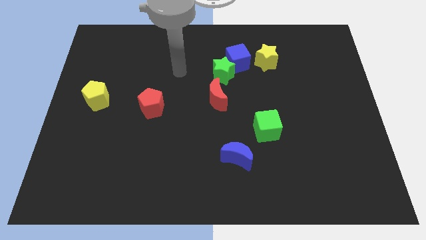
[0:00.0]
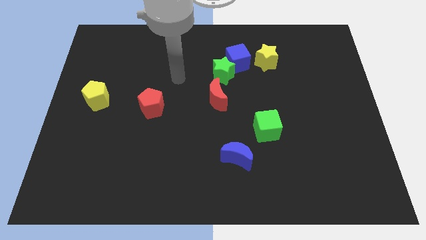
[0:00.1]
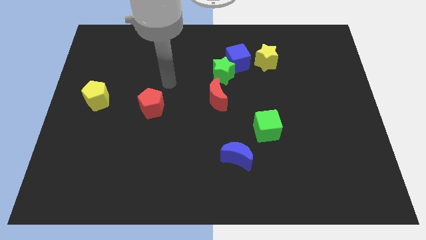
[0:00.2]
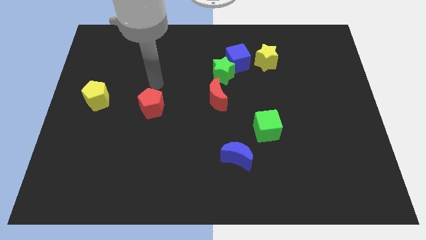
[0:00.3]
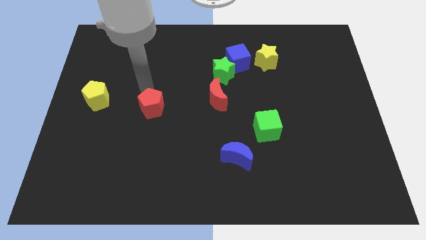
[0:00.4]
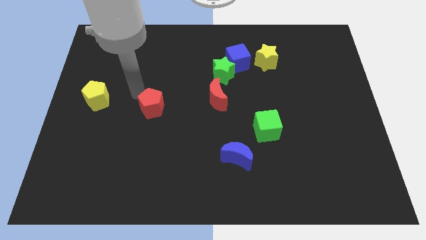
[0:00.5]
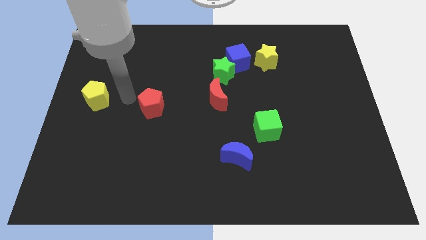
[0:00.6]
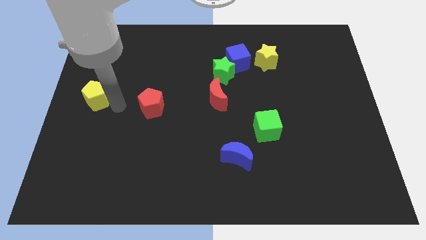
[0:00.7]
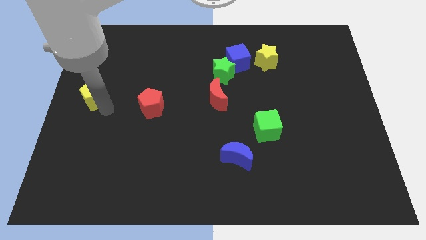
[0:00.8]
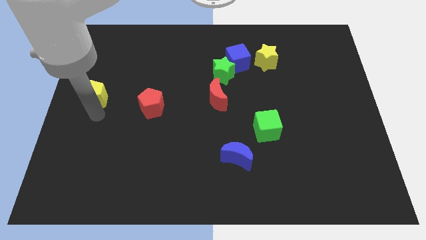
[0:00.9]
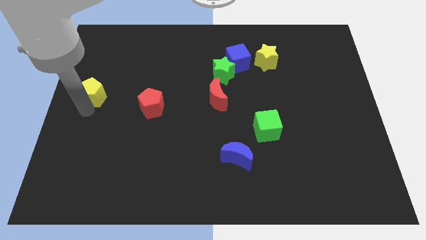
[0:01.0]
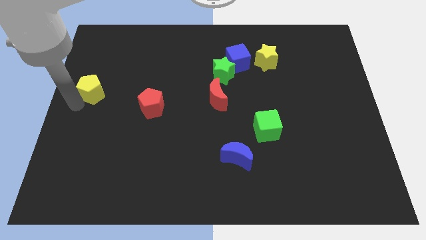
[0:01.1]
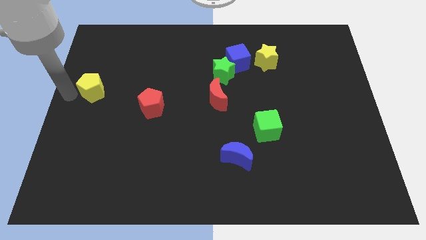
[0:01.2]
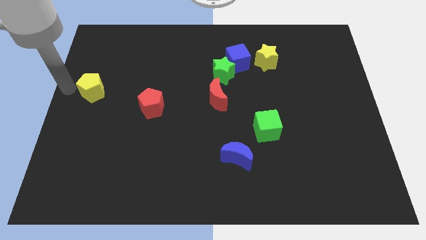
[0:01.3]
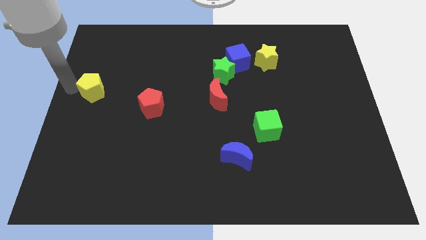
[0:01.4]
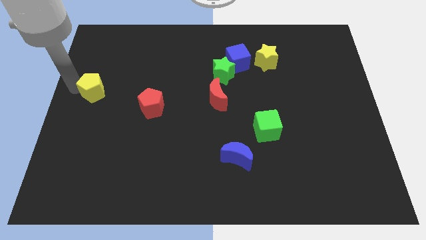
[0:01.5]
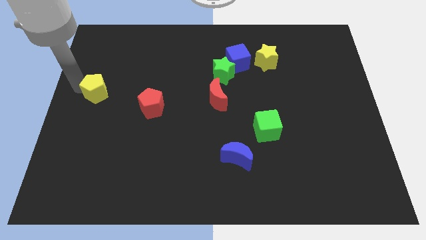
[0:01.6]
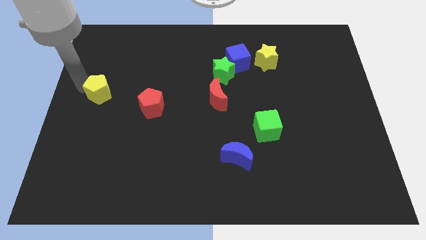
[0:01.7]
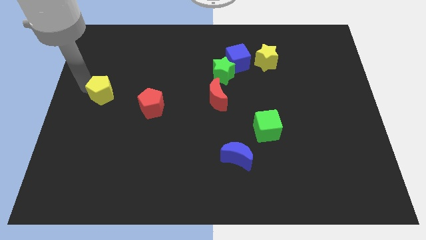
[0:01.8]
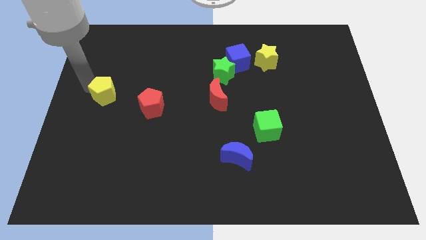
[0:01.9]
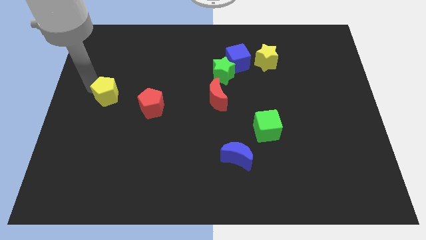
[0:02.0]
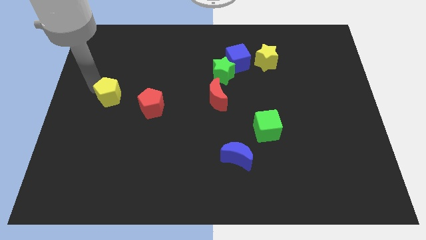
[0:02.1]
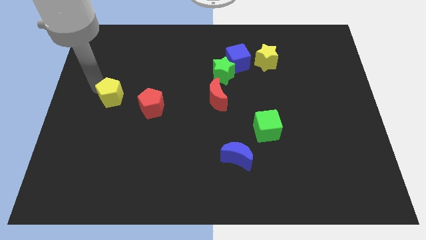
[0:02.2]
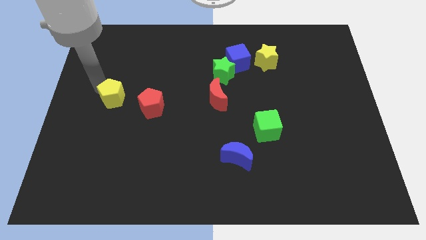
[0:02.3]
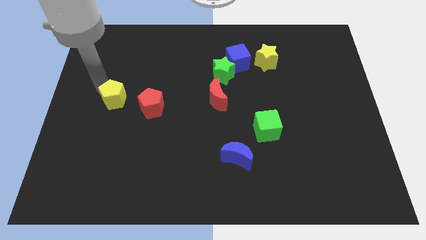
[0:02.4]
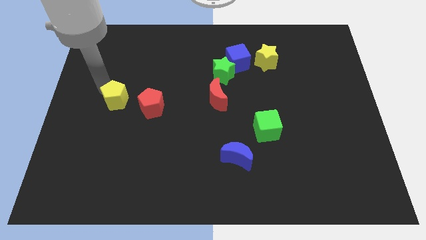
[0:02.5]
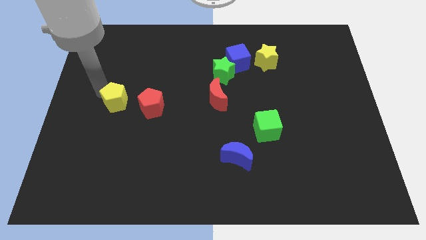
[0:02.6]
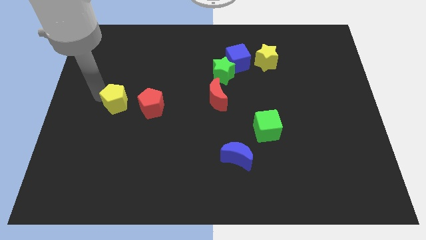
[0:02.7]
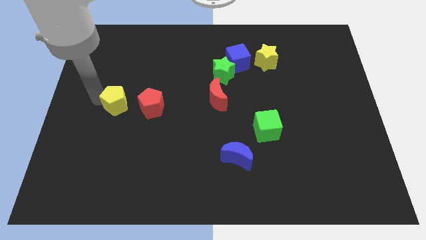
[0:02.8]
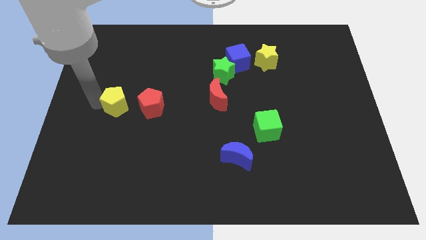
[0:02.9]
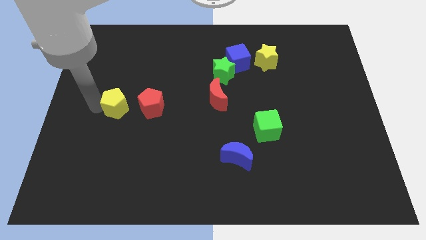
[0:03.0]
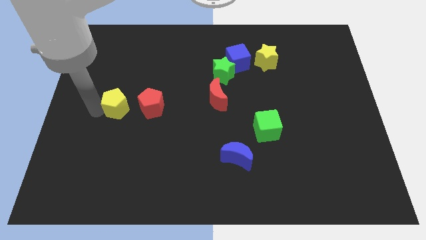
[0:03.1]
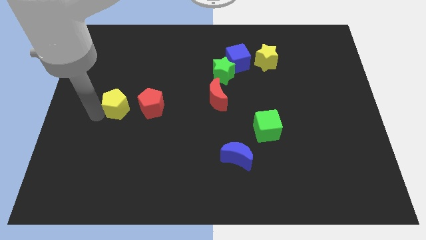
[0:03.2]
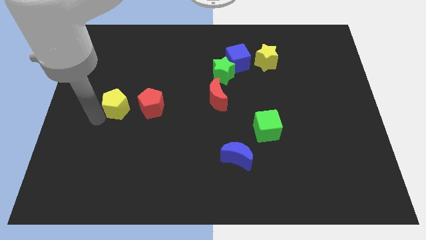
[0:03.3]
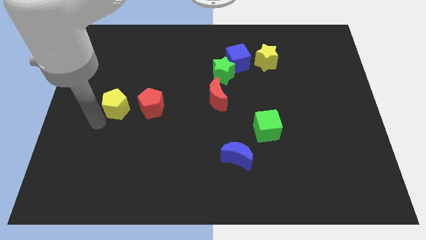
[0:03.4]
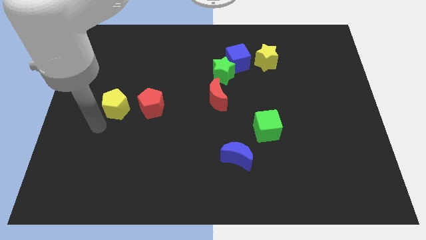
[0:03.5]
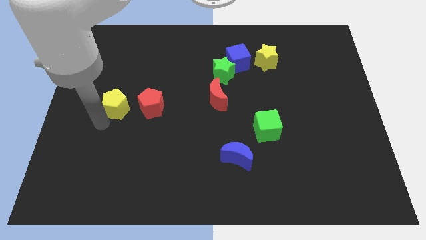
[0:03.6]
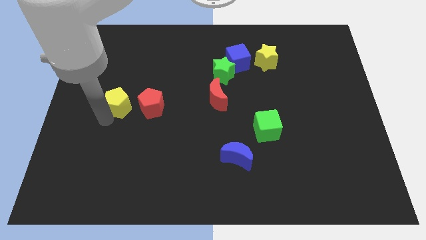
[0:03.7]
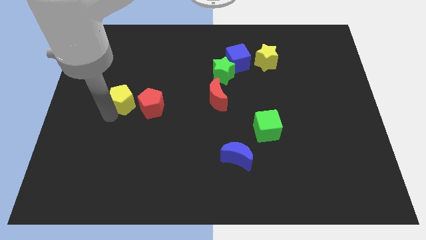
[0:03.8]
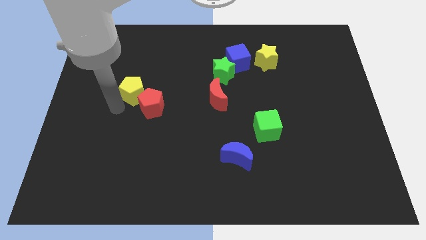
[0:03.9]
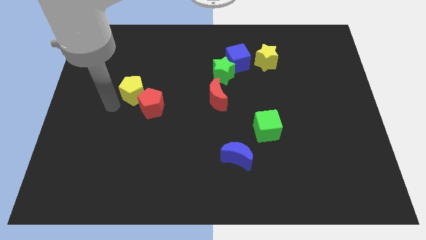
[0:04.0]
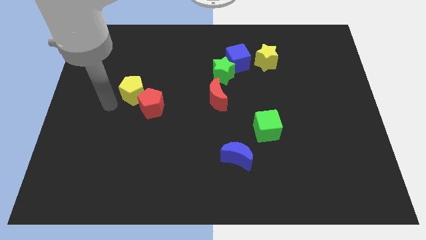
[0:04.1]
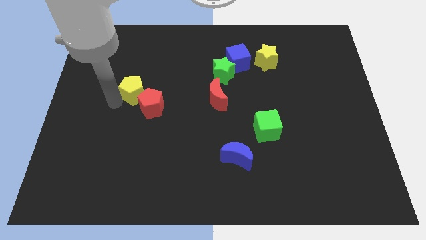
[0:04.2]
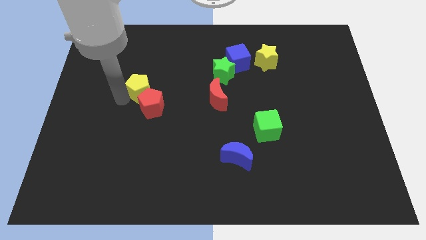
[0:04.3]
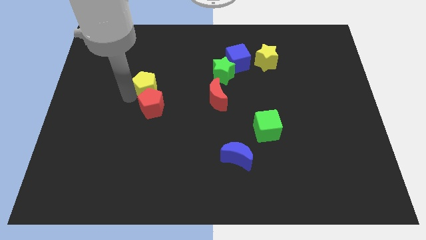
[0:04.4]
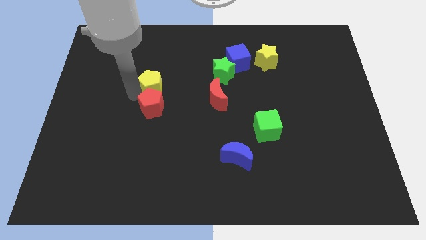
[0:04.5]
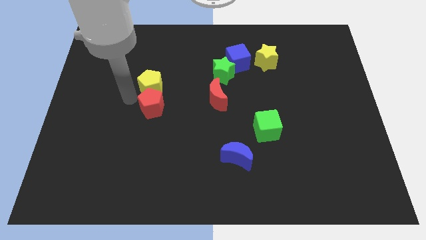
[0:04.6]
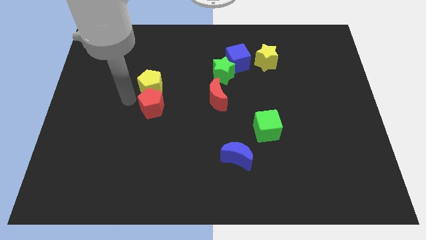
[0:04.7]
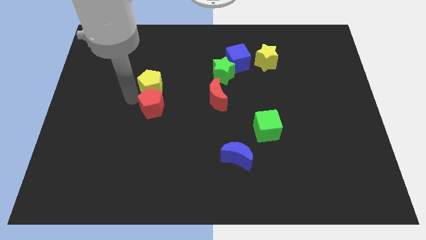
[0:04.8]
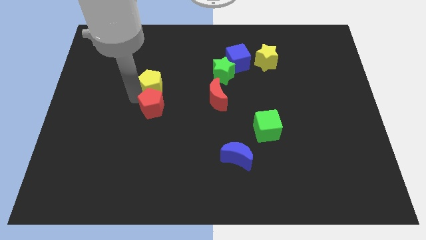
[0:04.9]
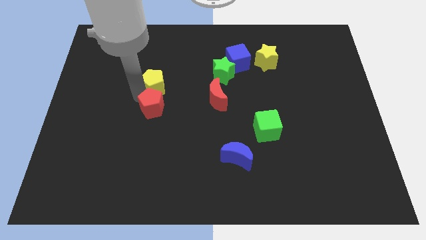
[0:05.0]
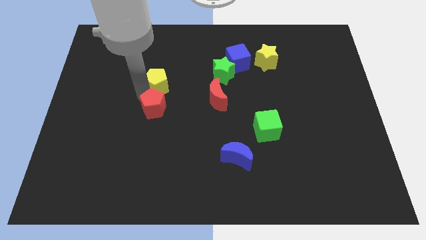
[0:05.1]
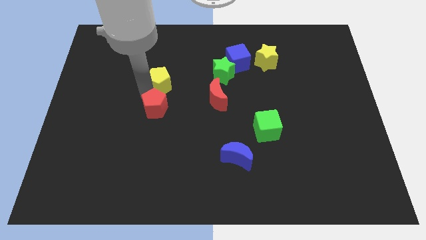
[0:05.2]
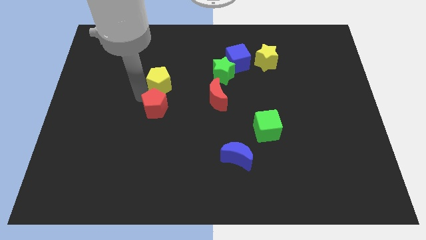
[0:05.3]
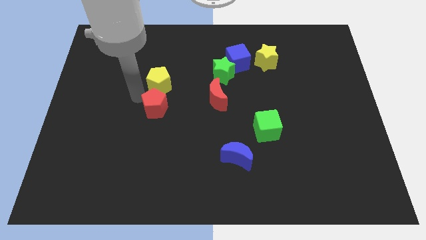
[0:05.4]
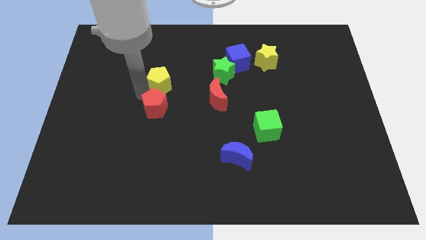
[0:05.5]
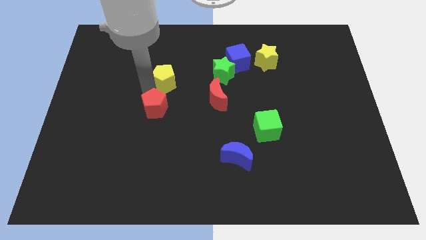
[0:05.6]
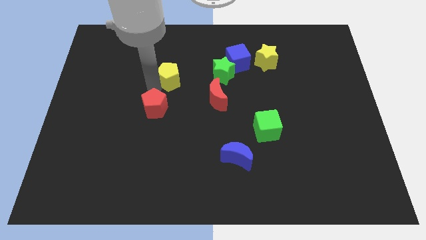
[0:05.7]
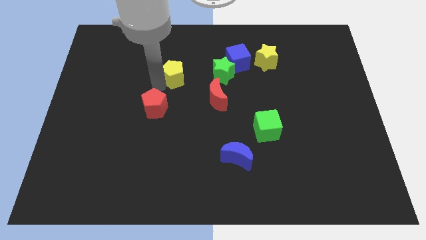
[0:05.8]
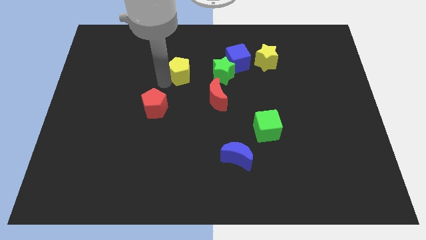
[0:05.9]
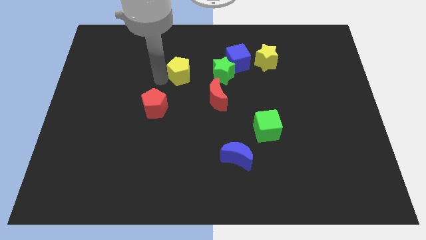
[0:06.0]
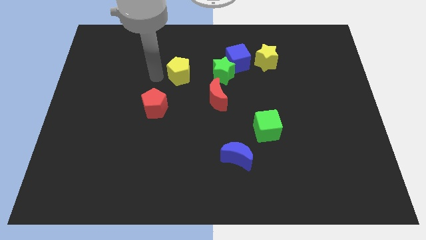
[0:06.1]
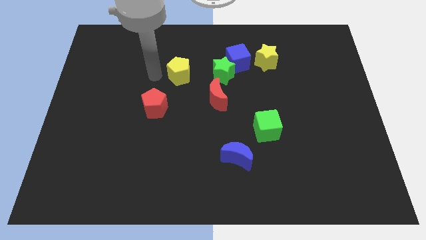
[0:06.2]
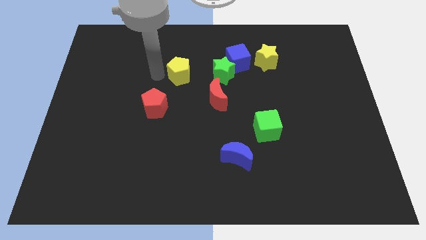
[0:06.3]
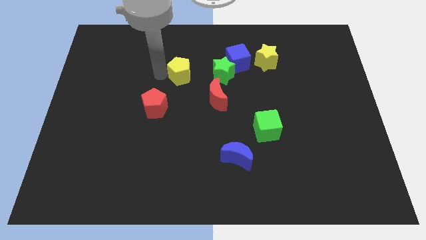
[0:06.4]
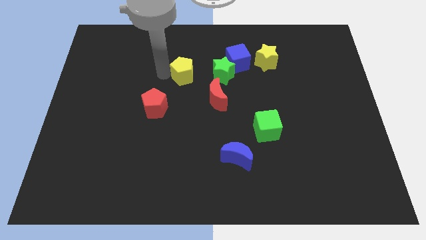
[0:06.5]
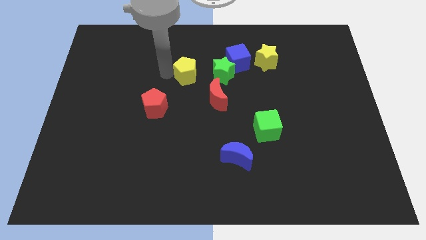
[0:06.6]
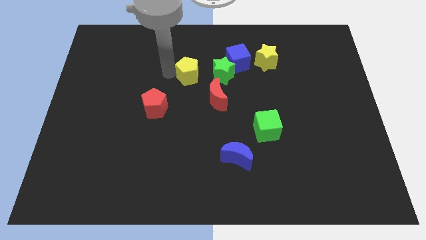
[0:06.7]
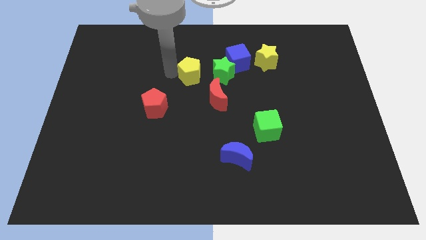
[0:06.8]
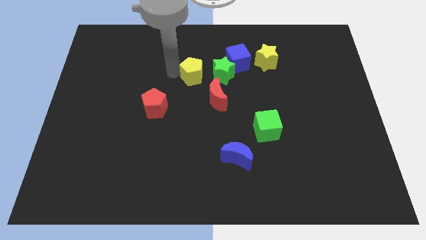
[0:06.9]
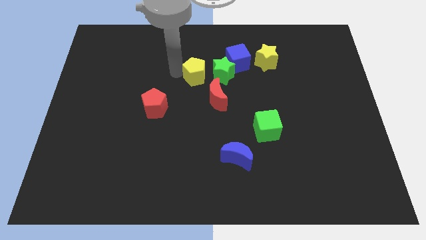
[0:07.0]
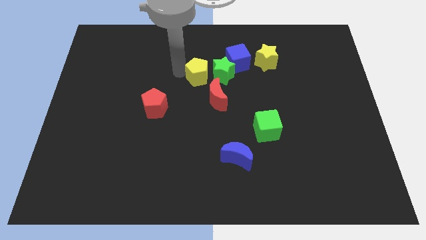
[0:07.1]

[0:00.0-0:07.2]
move the yellow pentagon to the green star

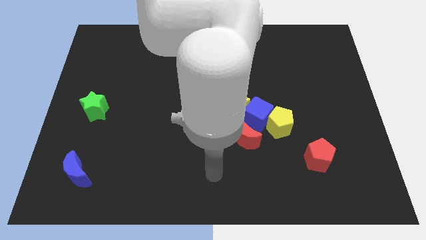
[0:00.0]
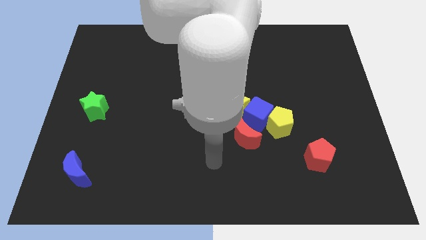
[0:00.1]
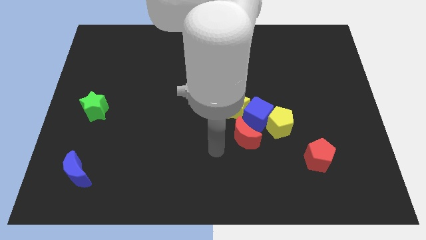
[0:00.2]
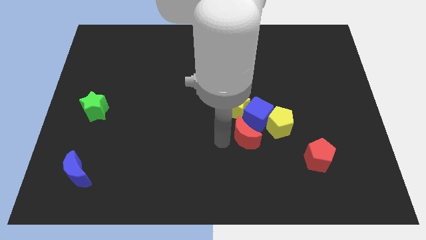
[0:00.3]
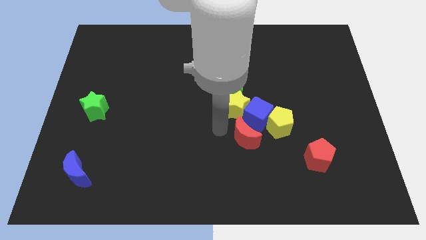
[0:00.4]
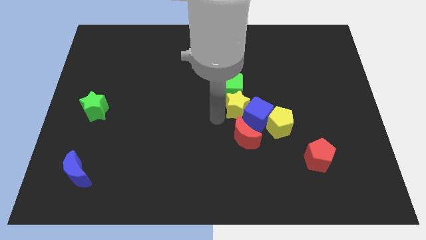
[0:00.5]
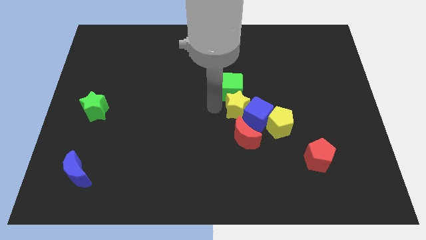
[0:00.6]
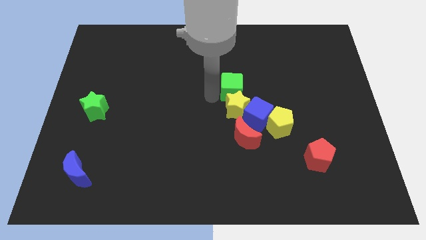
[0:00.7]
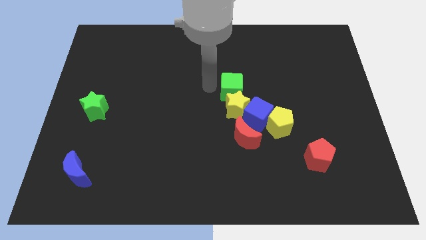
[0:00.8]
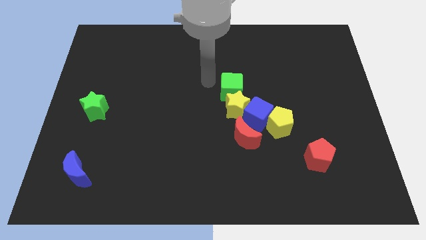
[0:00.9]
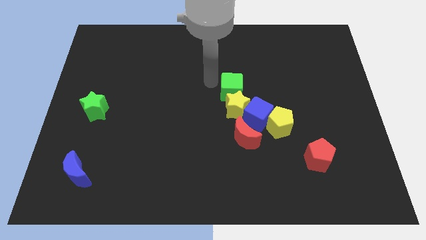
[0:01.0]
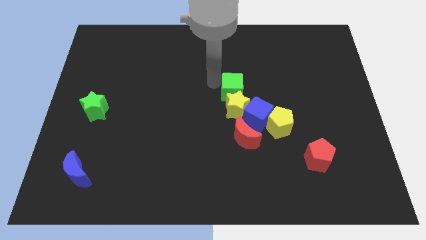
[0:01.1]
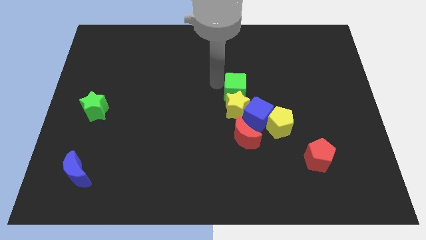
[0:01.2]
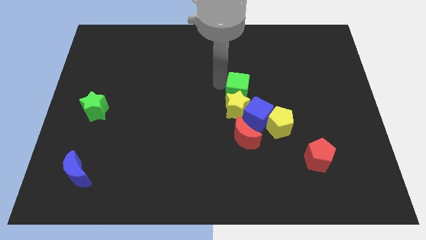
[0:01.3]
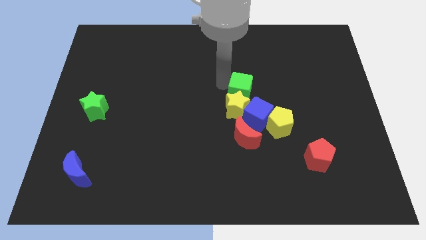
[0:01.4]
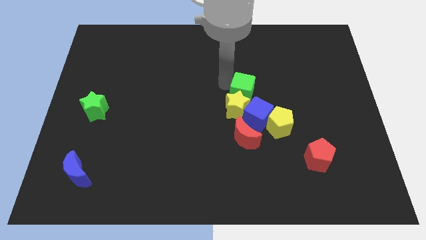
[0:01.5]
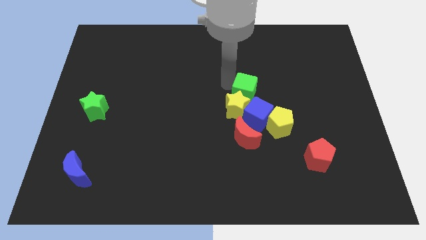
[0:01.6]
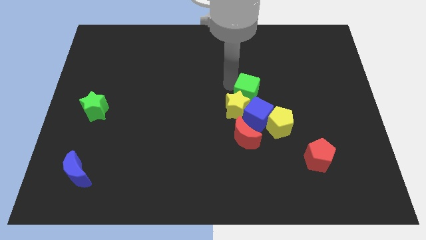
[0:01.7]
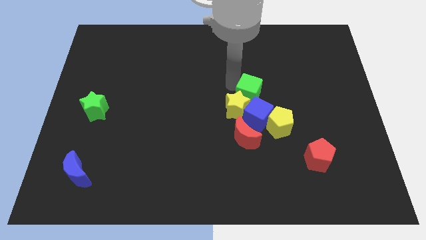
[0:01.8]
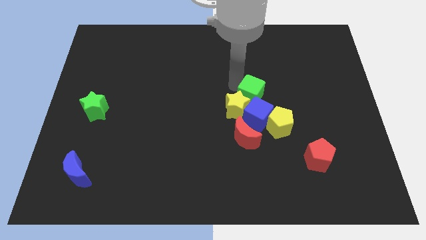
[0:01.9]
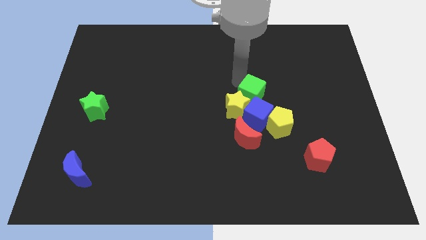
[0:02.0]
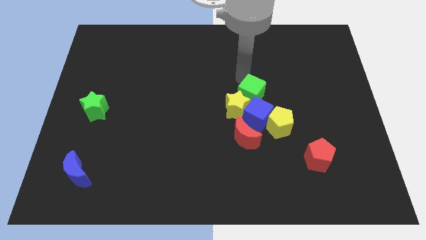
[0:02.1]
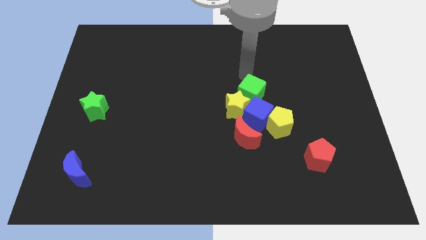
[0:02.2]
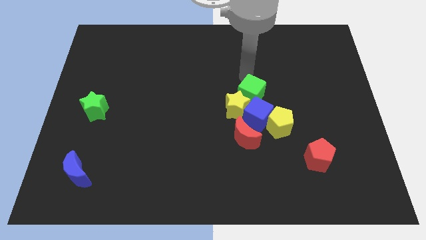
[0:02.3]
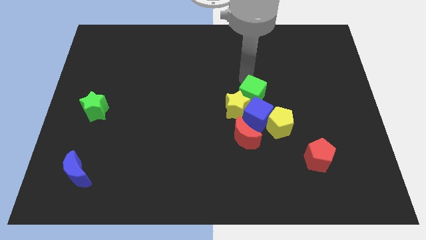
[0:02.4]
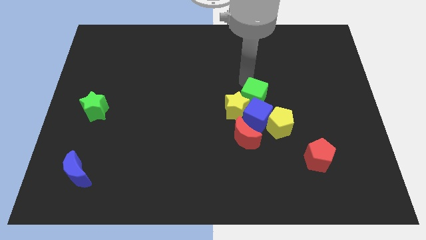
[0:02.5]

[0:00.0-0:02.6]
push the green cube towards the blue cube
